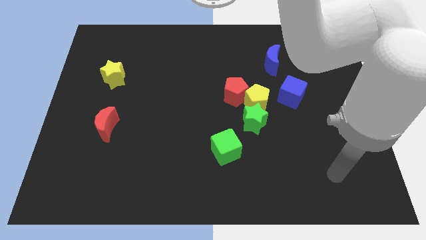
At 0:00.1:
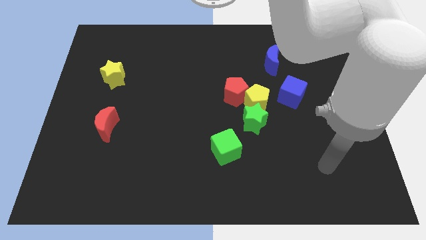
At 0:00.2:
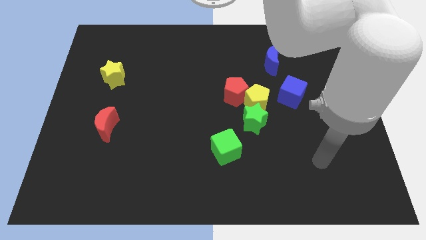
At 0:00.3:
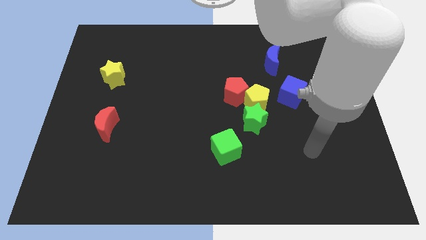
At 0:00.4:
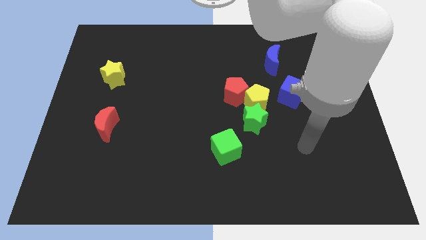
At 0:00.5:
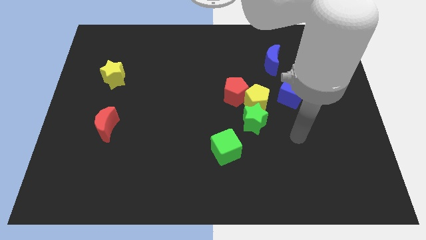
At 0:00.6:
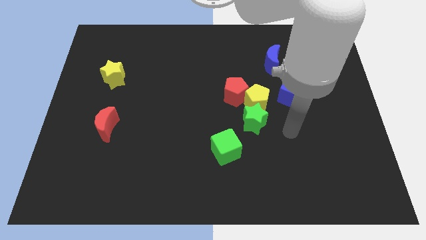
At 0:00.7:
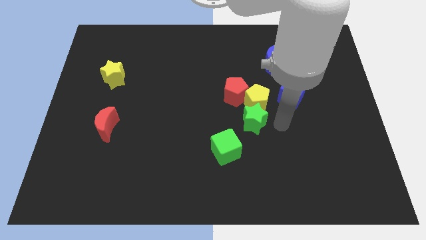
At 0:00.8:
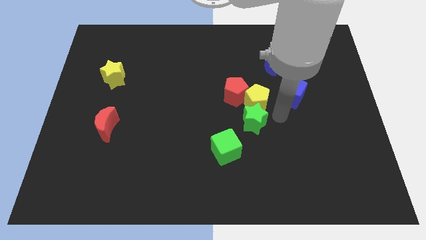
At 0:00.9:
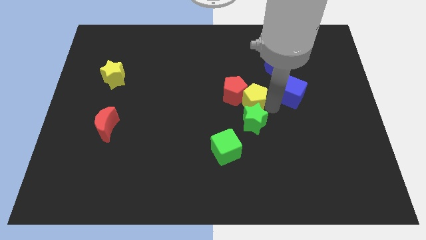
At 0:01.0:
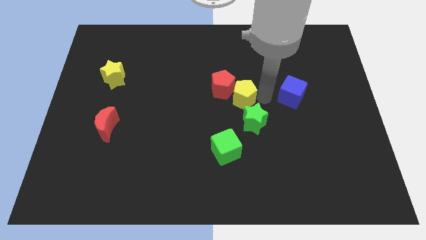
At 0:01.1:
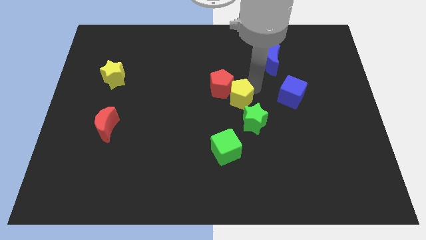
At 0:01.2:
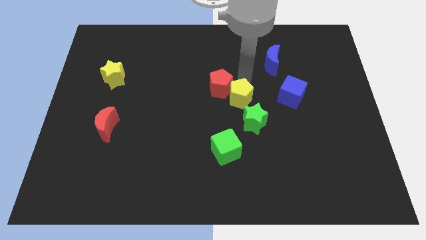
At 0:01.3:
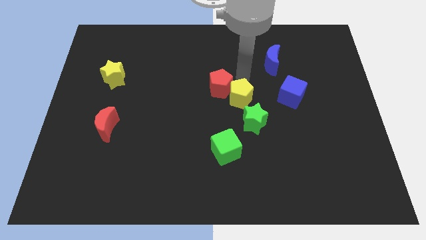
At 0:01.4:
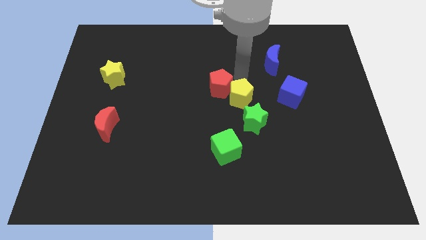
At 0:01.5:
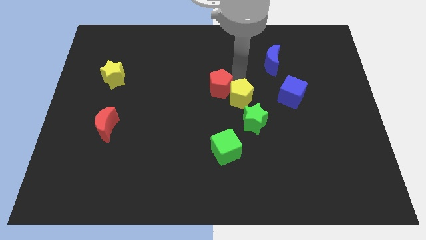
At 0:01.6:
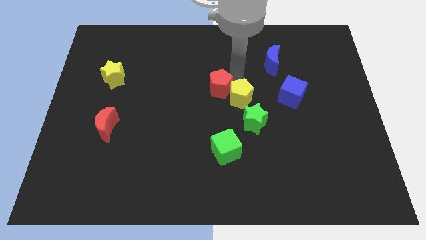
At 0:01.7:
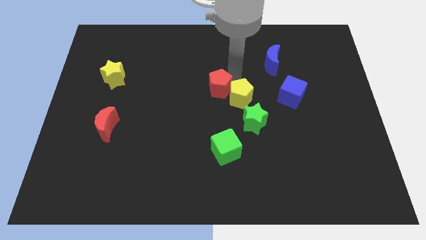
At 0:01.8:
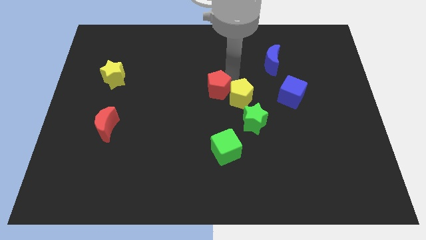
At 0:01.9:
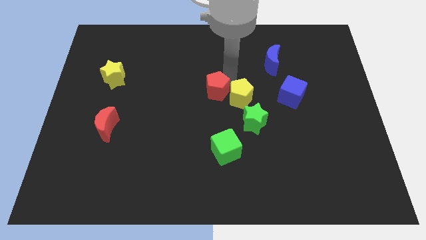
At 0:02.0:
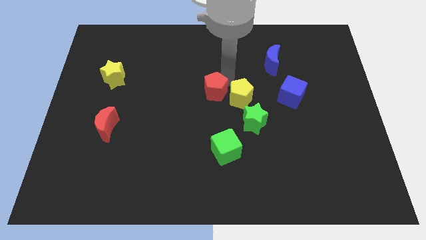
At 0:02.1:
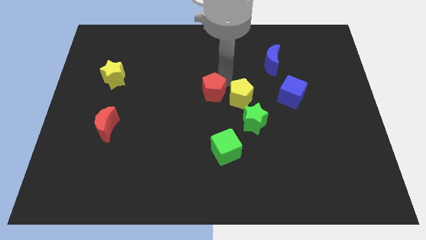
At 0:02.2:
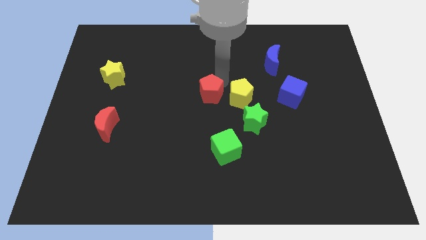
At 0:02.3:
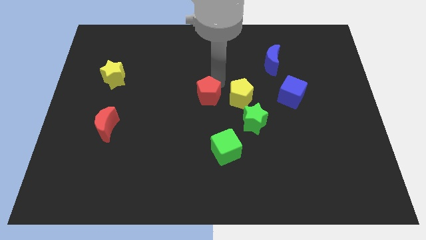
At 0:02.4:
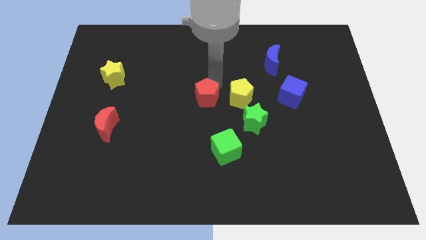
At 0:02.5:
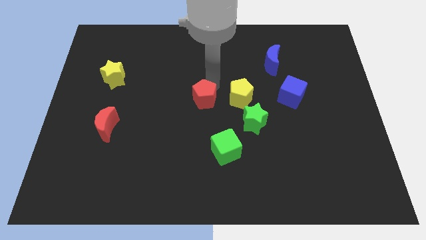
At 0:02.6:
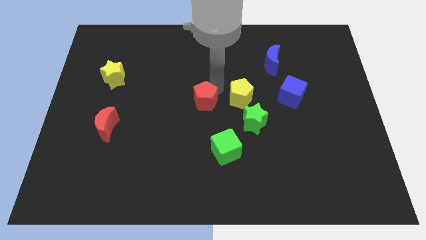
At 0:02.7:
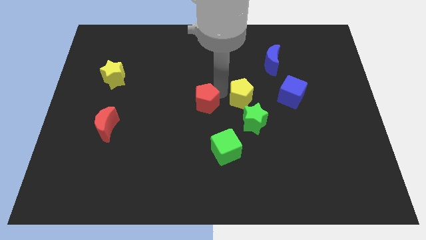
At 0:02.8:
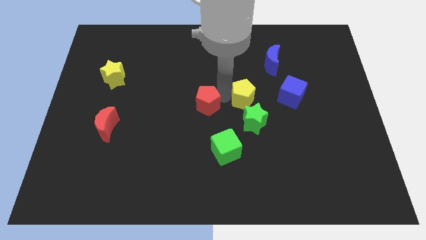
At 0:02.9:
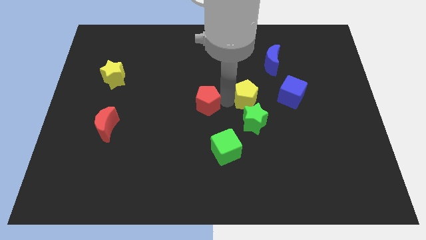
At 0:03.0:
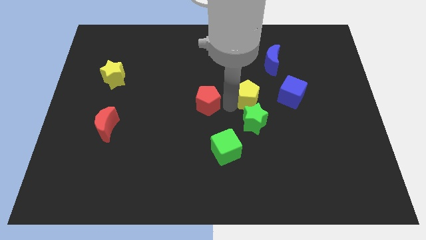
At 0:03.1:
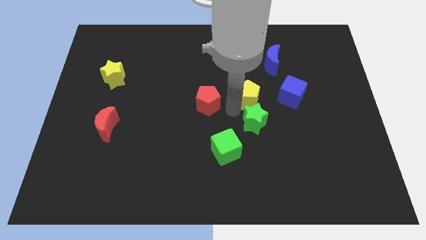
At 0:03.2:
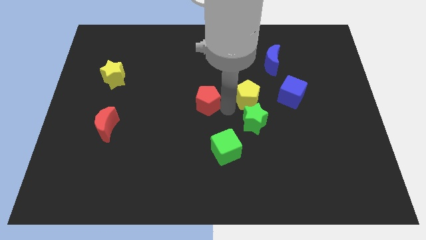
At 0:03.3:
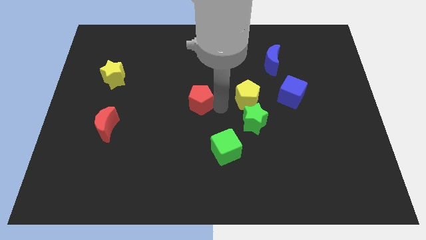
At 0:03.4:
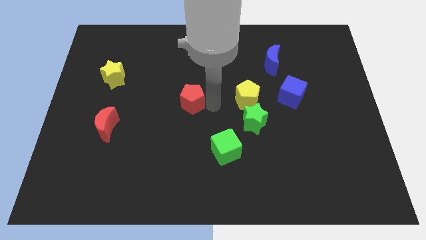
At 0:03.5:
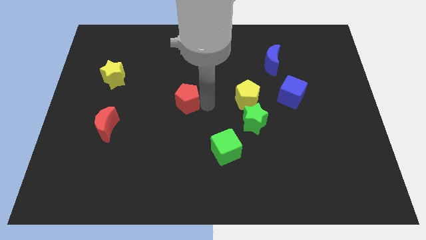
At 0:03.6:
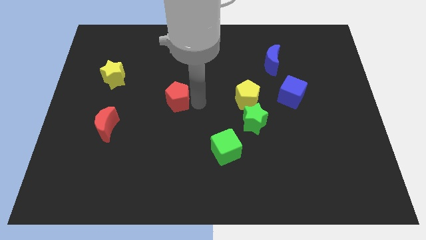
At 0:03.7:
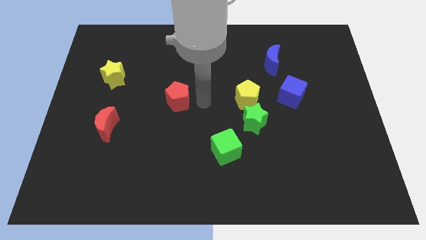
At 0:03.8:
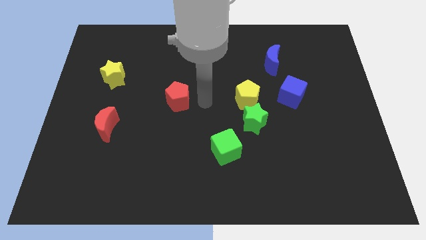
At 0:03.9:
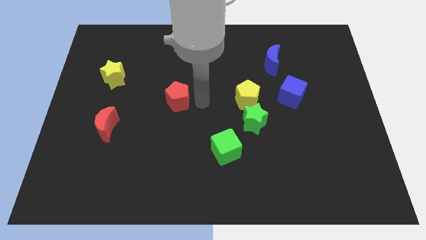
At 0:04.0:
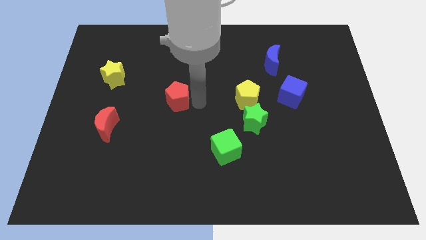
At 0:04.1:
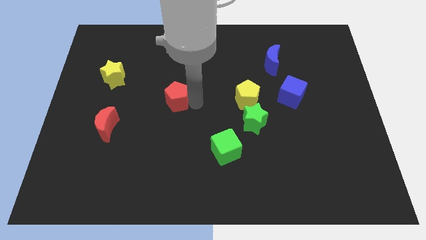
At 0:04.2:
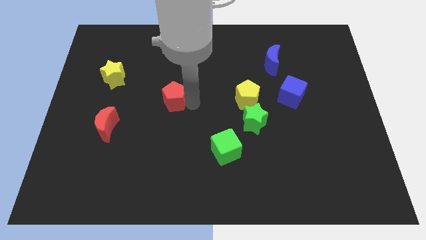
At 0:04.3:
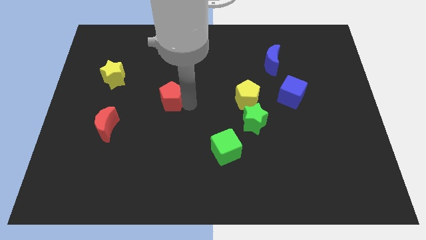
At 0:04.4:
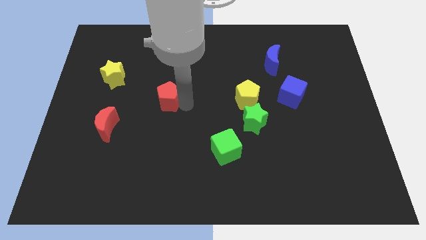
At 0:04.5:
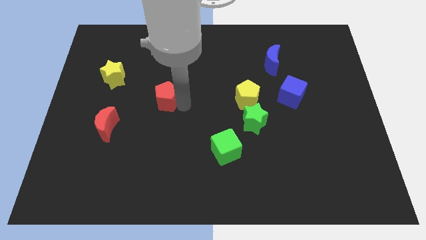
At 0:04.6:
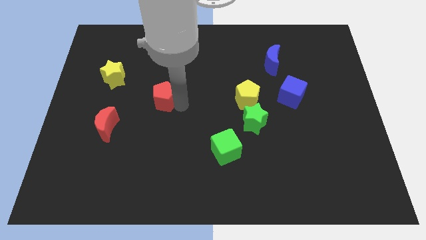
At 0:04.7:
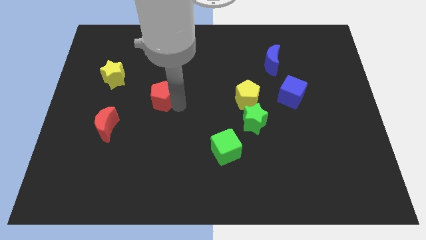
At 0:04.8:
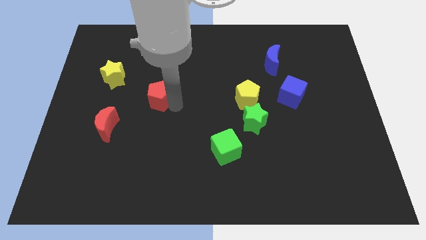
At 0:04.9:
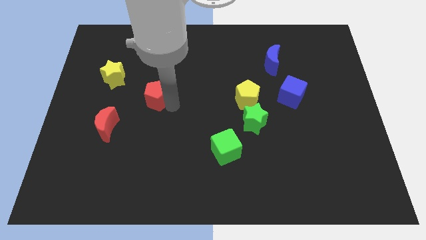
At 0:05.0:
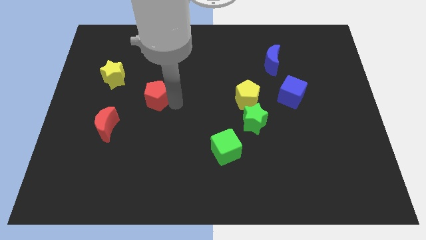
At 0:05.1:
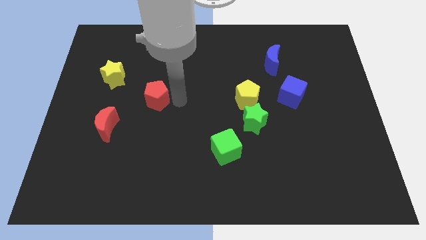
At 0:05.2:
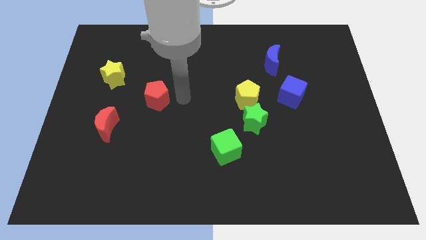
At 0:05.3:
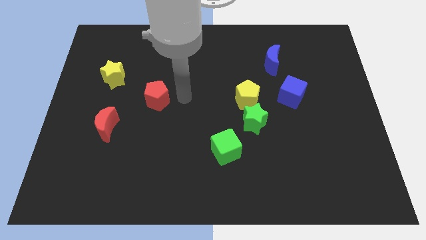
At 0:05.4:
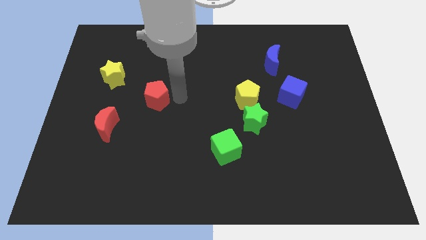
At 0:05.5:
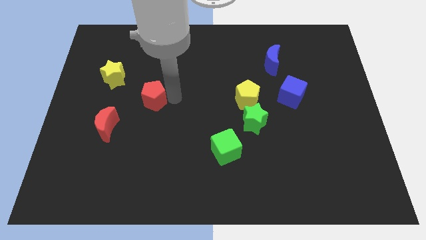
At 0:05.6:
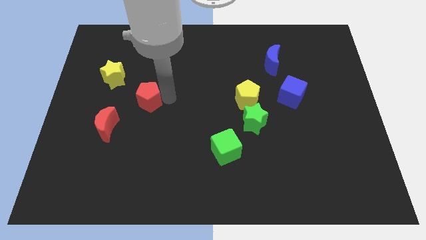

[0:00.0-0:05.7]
slide the red pentagon left

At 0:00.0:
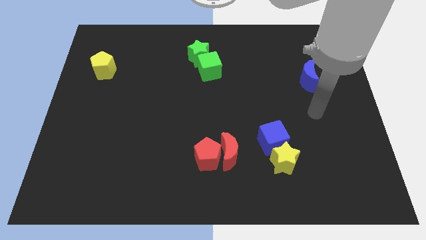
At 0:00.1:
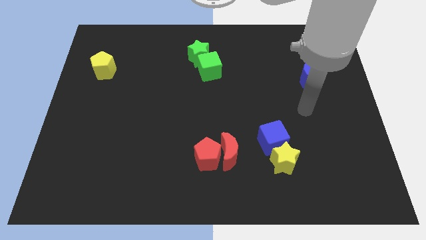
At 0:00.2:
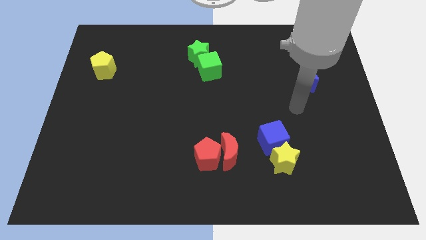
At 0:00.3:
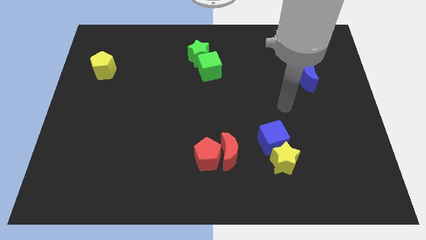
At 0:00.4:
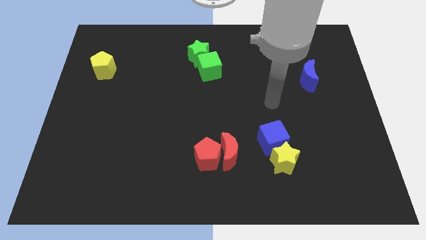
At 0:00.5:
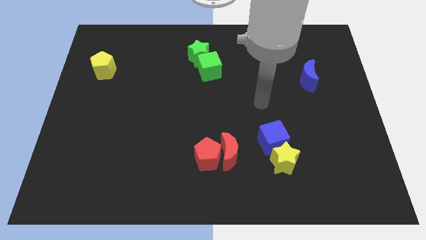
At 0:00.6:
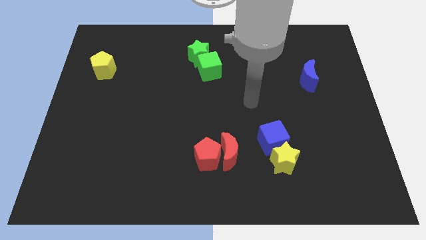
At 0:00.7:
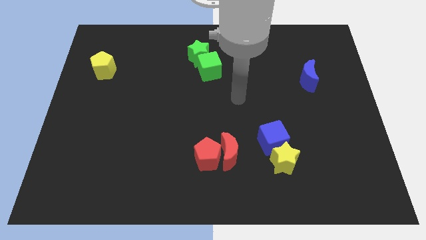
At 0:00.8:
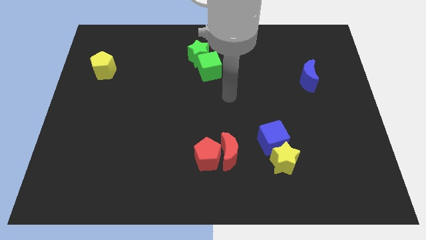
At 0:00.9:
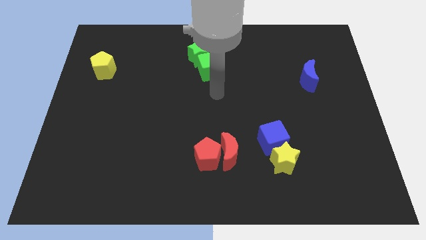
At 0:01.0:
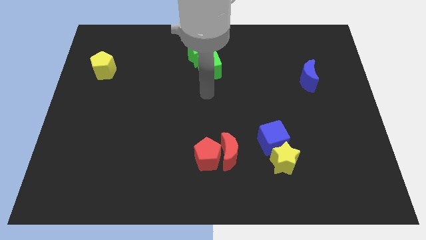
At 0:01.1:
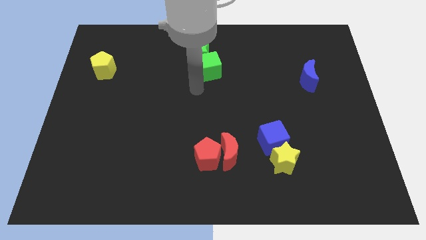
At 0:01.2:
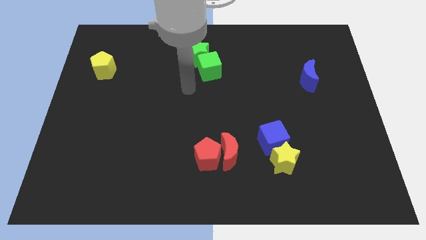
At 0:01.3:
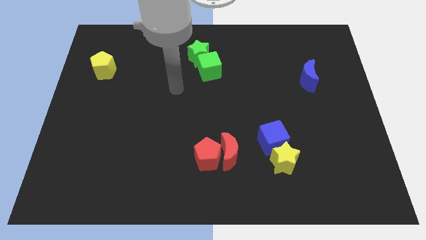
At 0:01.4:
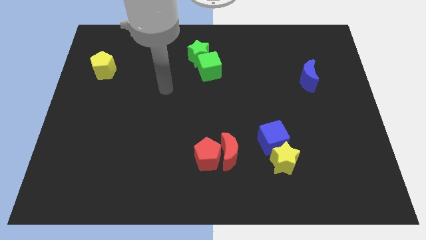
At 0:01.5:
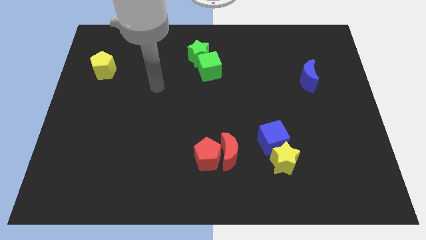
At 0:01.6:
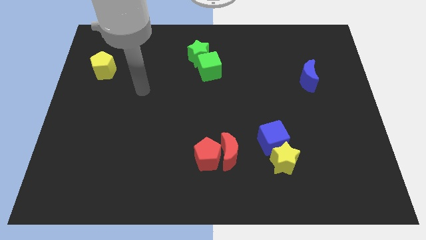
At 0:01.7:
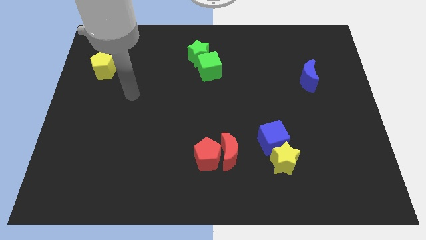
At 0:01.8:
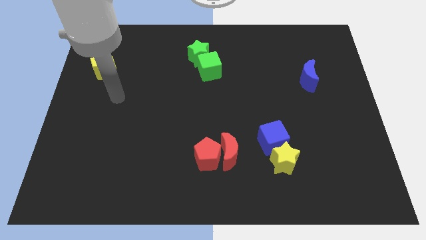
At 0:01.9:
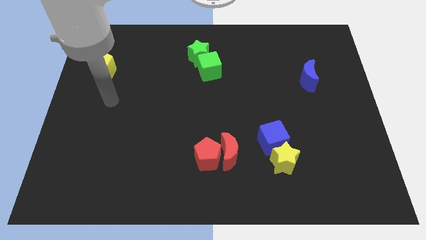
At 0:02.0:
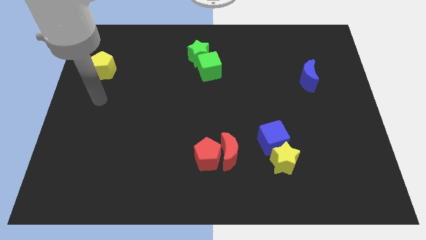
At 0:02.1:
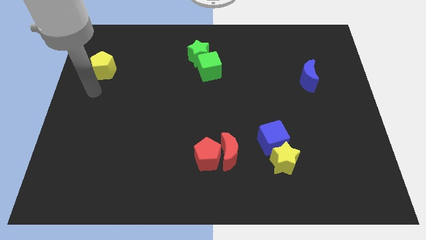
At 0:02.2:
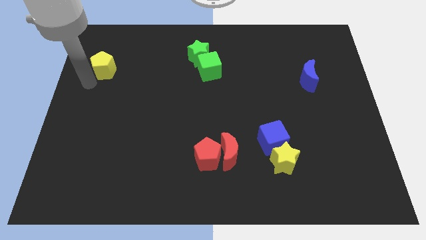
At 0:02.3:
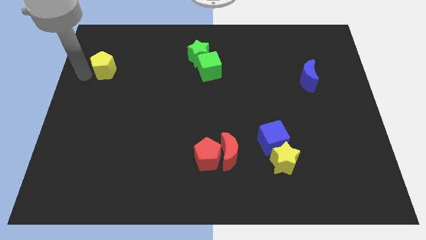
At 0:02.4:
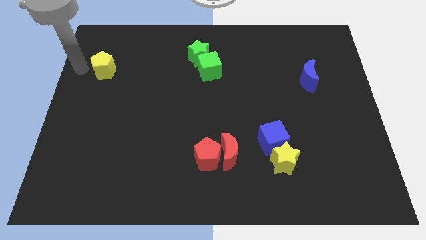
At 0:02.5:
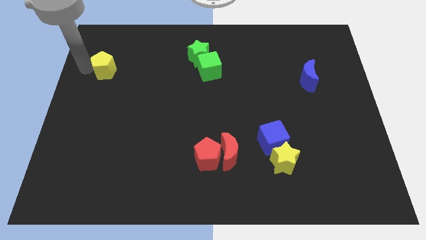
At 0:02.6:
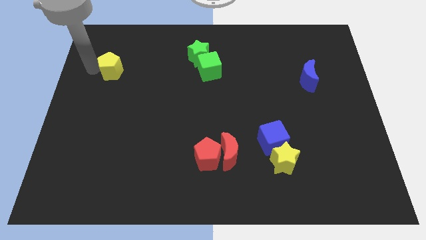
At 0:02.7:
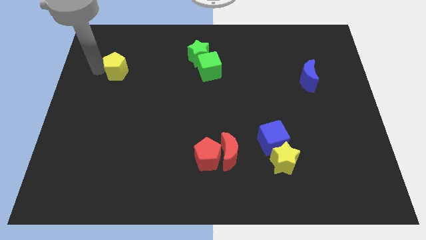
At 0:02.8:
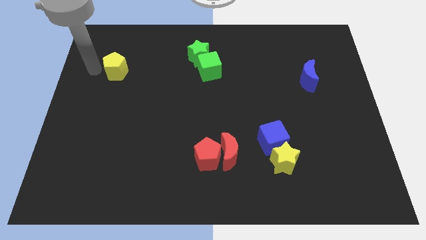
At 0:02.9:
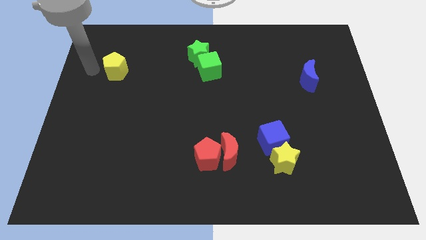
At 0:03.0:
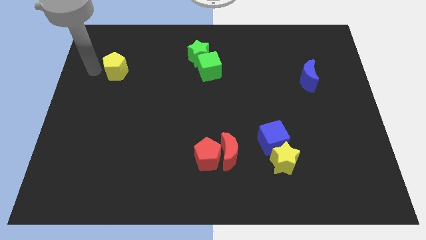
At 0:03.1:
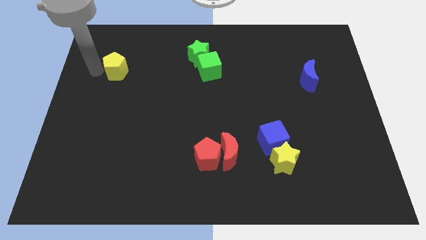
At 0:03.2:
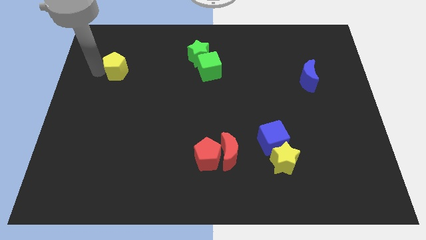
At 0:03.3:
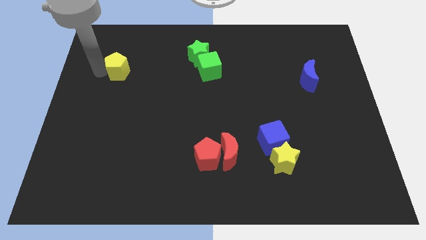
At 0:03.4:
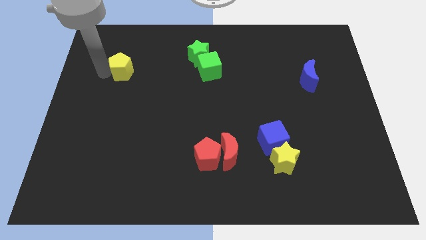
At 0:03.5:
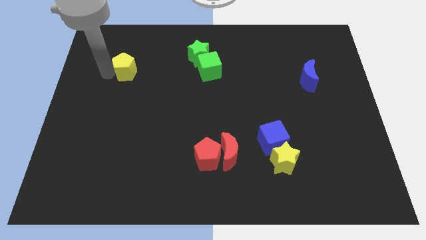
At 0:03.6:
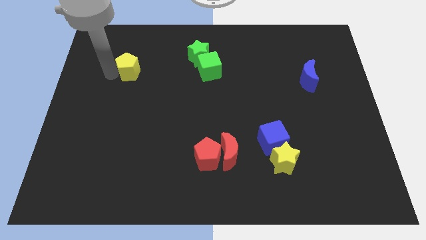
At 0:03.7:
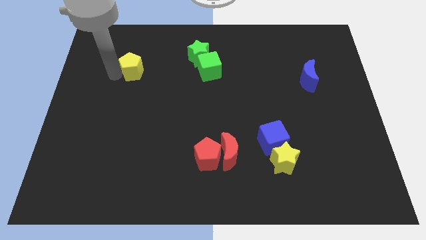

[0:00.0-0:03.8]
slide the yellow pentagon to the right a bit
